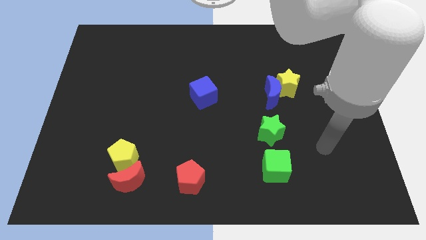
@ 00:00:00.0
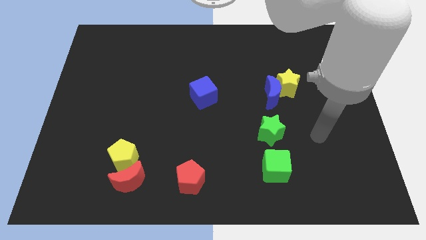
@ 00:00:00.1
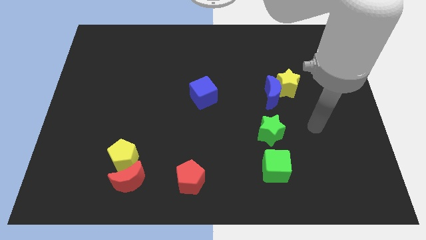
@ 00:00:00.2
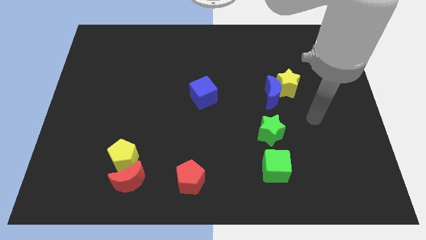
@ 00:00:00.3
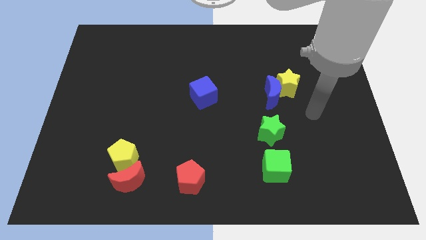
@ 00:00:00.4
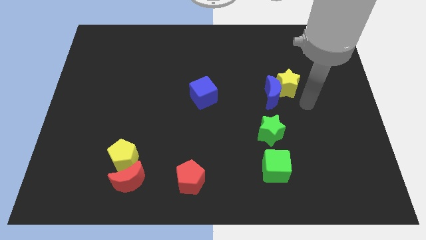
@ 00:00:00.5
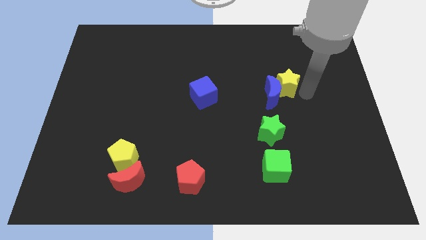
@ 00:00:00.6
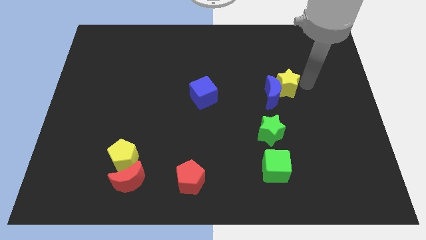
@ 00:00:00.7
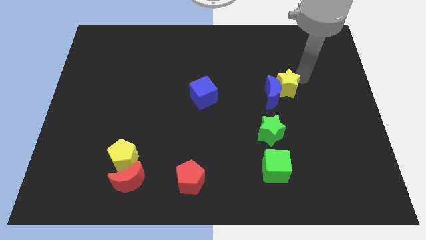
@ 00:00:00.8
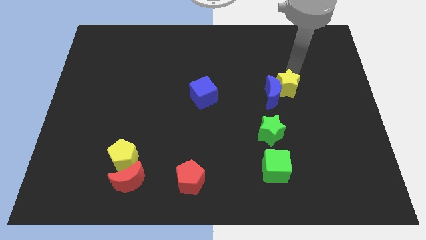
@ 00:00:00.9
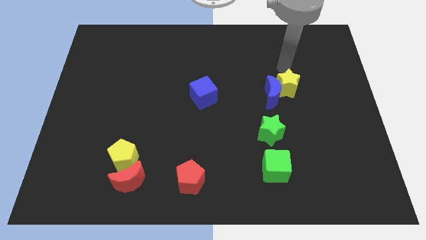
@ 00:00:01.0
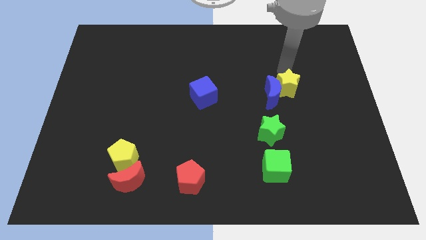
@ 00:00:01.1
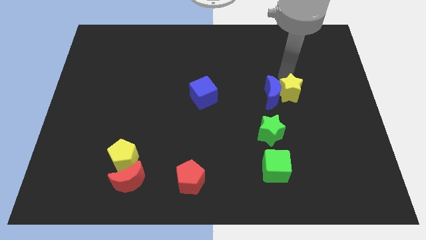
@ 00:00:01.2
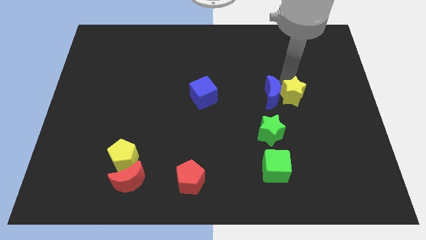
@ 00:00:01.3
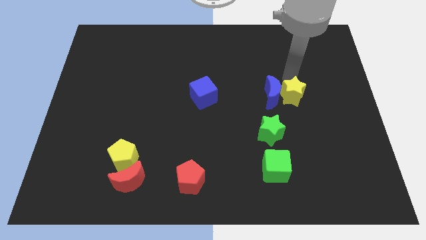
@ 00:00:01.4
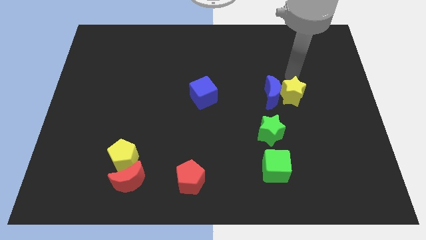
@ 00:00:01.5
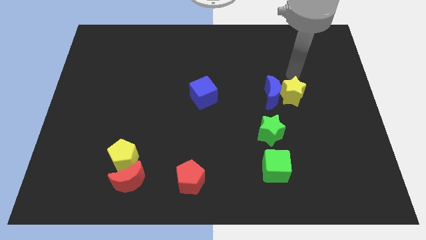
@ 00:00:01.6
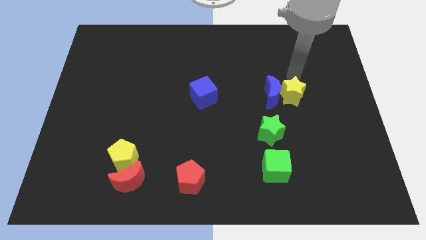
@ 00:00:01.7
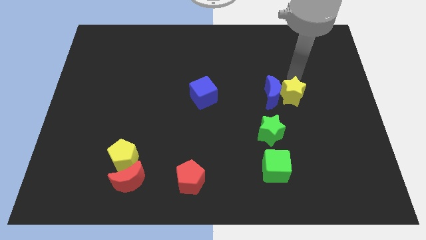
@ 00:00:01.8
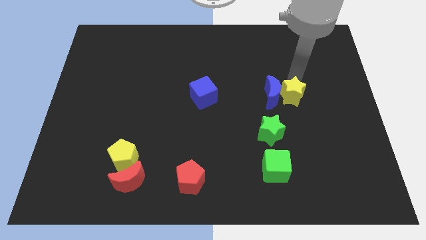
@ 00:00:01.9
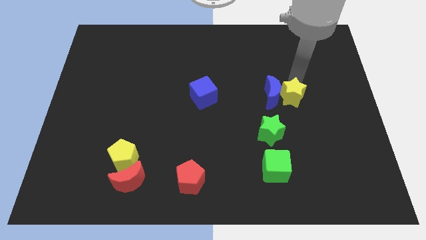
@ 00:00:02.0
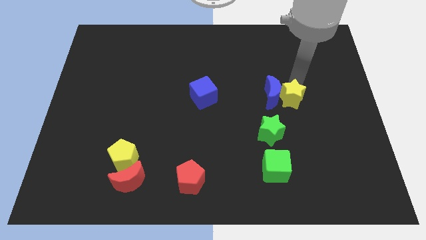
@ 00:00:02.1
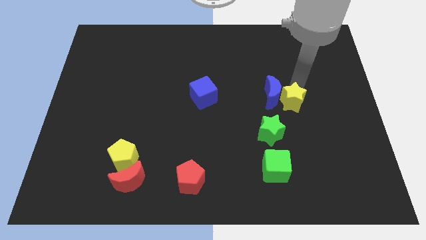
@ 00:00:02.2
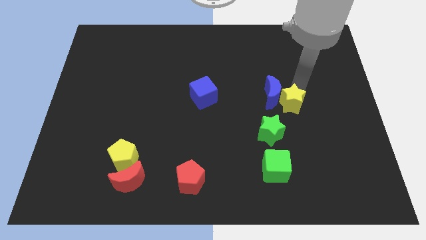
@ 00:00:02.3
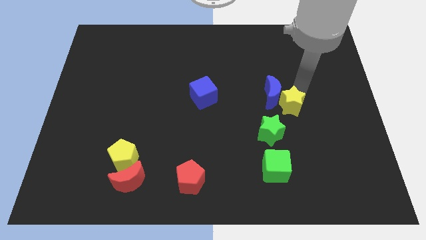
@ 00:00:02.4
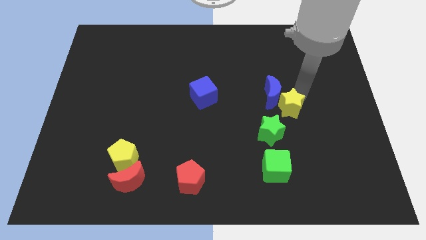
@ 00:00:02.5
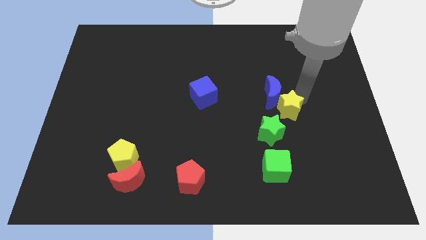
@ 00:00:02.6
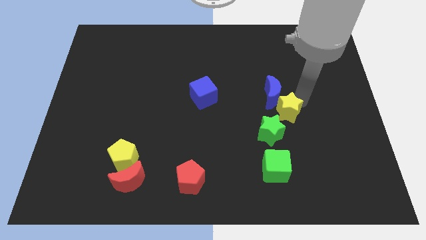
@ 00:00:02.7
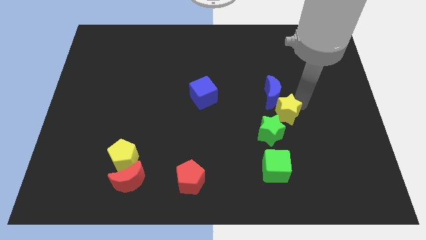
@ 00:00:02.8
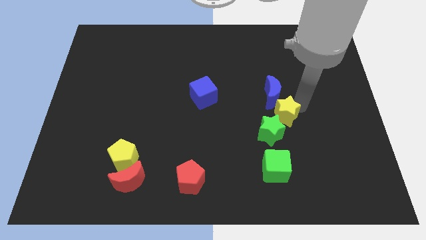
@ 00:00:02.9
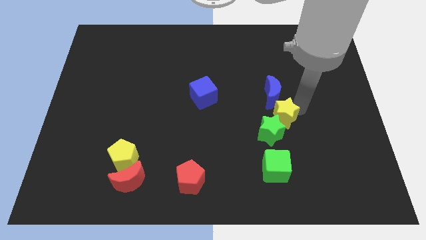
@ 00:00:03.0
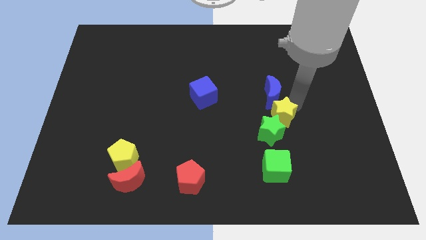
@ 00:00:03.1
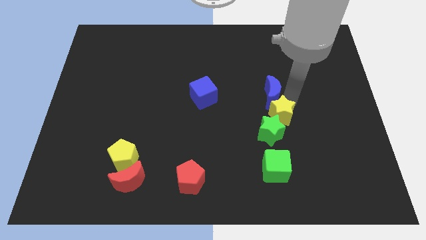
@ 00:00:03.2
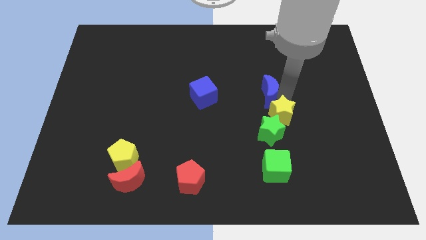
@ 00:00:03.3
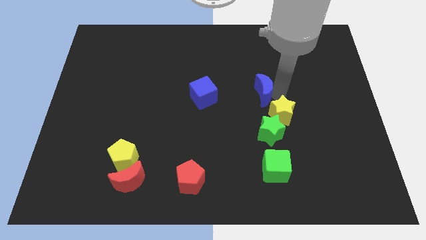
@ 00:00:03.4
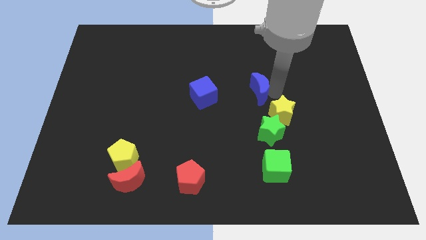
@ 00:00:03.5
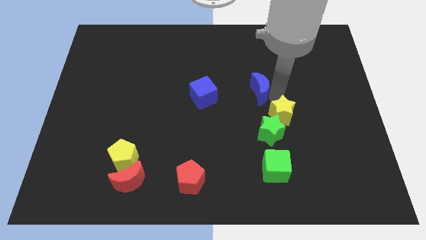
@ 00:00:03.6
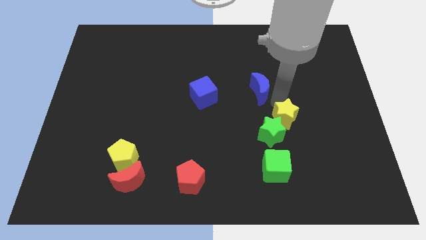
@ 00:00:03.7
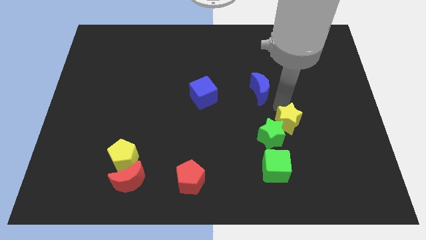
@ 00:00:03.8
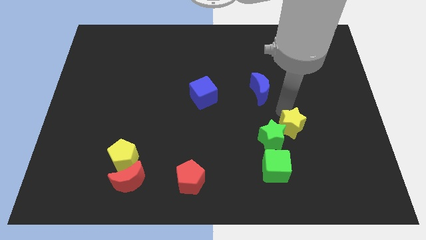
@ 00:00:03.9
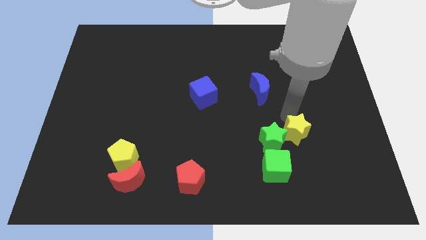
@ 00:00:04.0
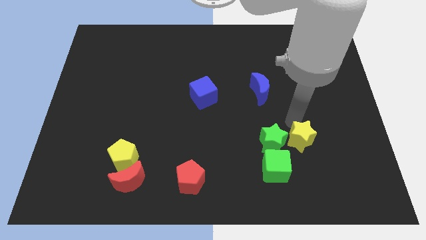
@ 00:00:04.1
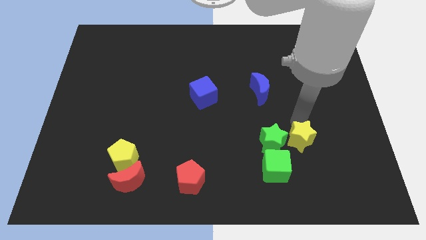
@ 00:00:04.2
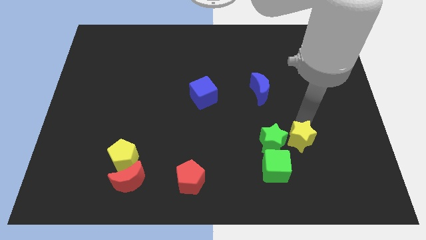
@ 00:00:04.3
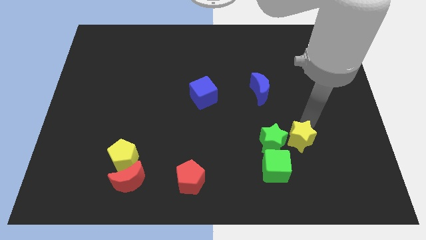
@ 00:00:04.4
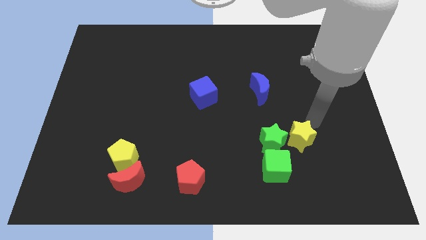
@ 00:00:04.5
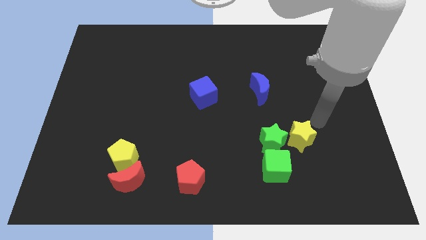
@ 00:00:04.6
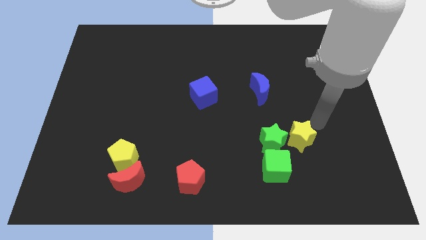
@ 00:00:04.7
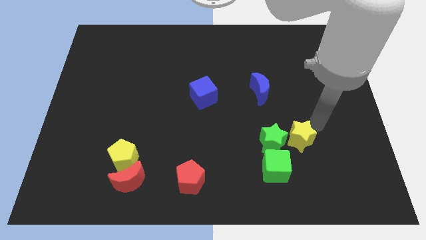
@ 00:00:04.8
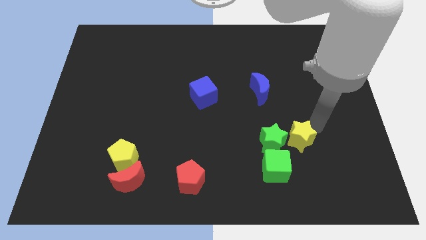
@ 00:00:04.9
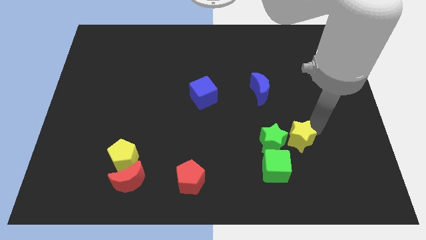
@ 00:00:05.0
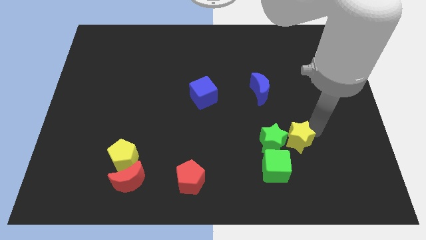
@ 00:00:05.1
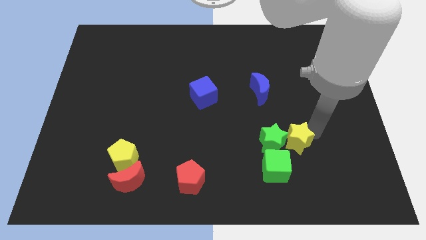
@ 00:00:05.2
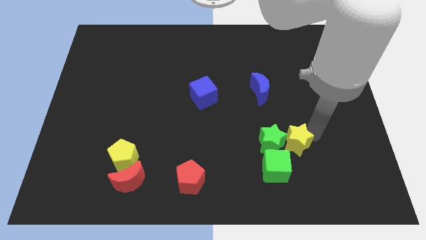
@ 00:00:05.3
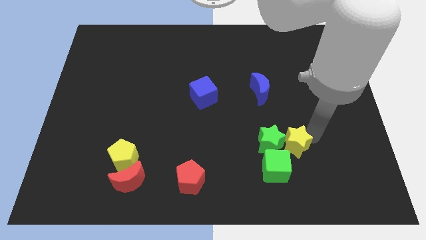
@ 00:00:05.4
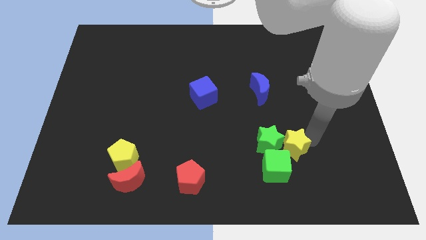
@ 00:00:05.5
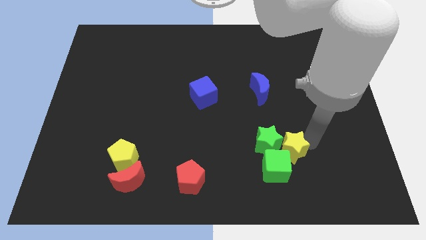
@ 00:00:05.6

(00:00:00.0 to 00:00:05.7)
slide the yellow star next to the green cube

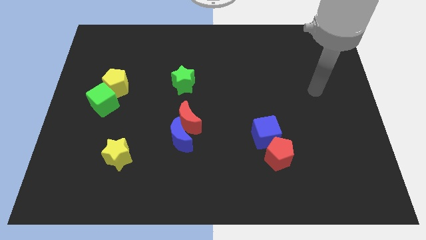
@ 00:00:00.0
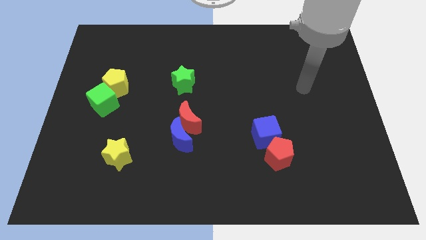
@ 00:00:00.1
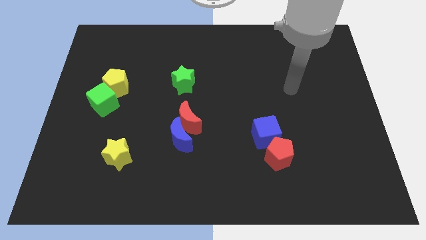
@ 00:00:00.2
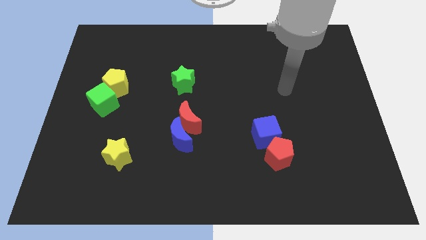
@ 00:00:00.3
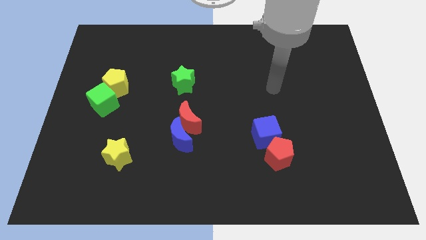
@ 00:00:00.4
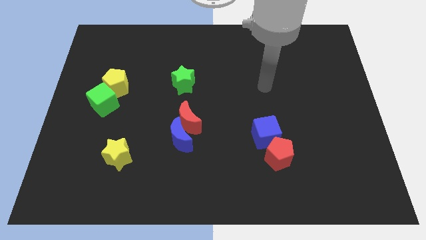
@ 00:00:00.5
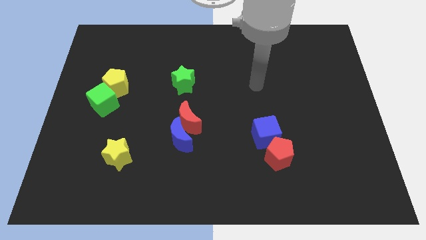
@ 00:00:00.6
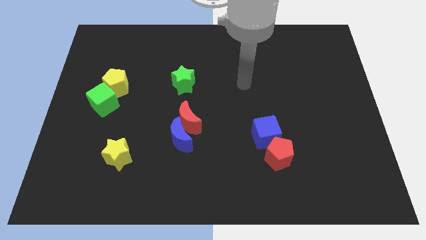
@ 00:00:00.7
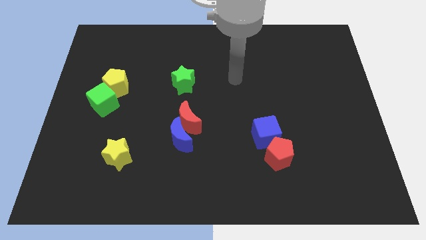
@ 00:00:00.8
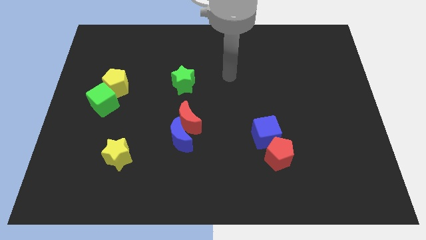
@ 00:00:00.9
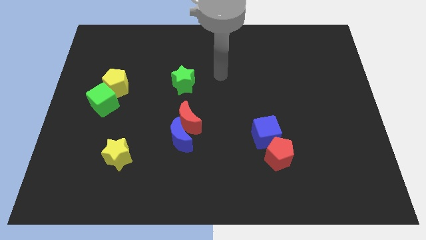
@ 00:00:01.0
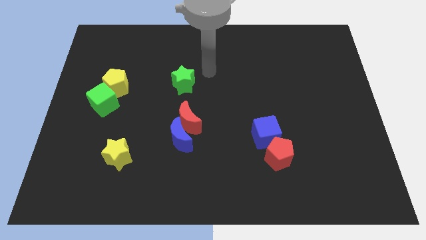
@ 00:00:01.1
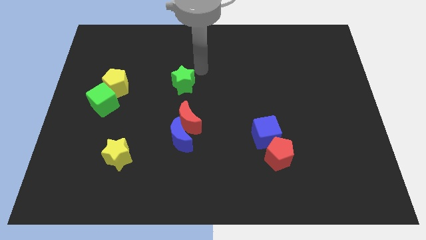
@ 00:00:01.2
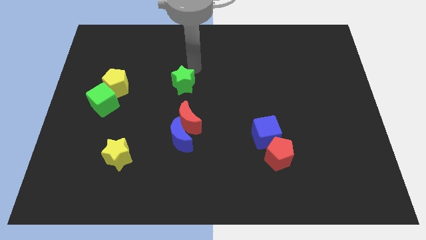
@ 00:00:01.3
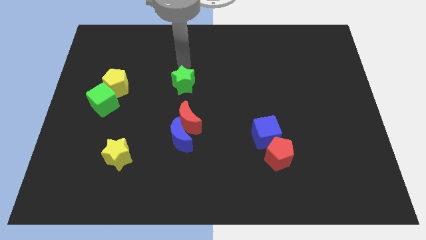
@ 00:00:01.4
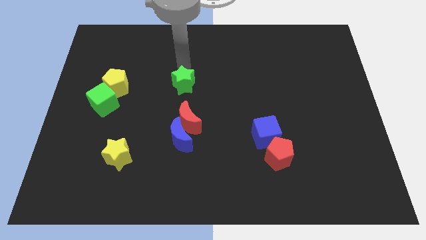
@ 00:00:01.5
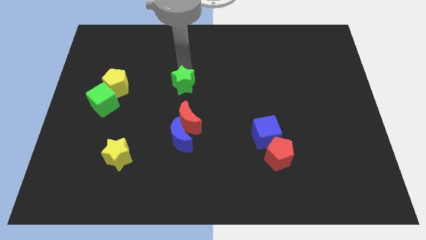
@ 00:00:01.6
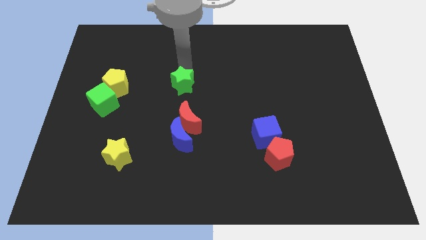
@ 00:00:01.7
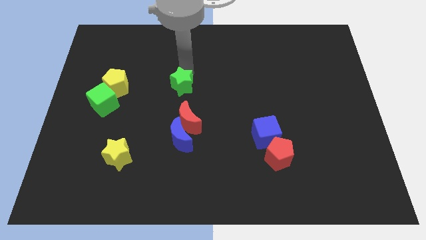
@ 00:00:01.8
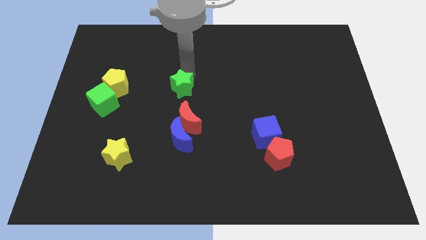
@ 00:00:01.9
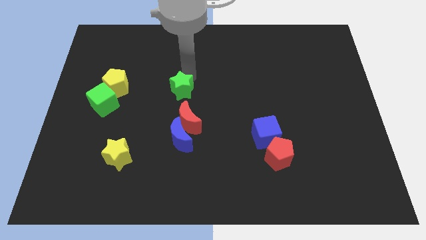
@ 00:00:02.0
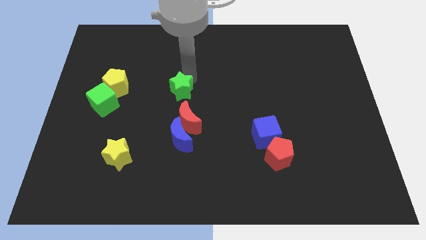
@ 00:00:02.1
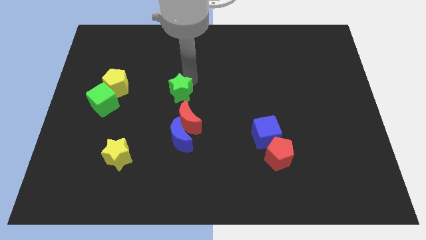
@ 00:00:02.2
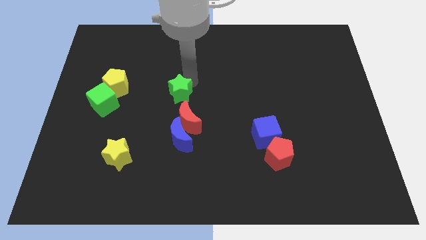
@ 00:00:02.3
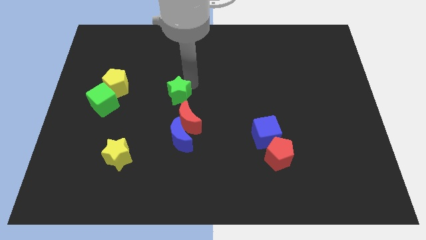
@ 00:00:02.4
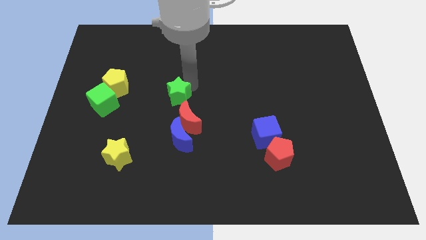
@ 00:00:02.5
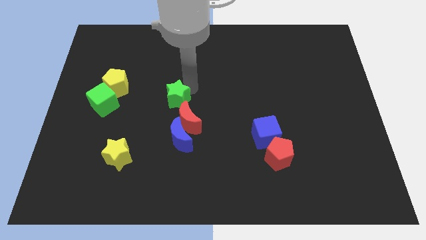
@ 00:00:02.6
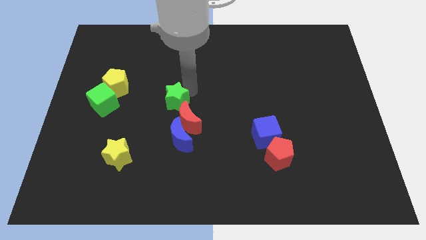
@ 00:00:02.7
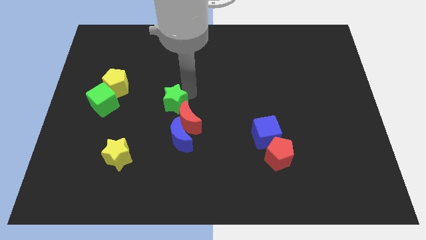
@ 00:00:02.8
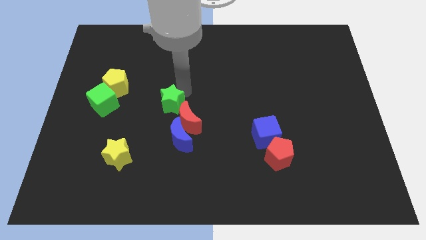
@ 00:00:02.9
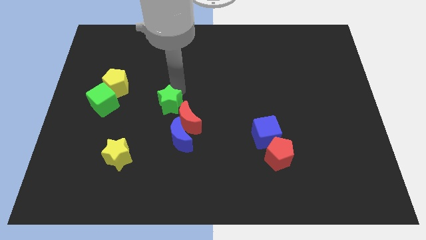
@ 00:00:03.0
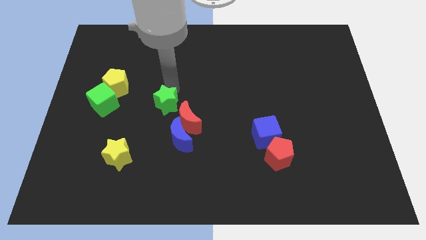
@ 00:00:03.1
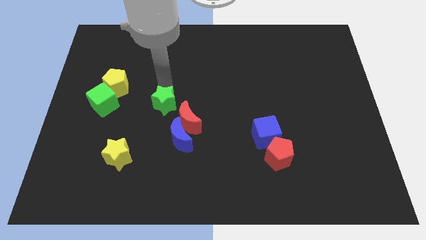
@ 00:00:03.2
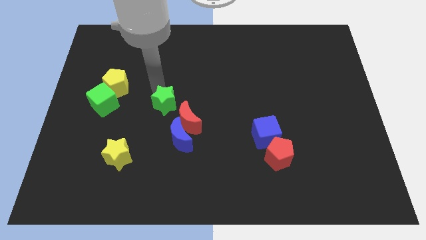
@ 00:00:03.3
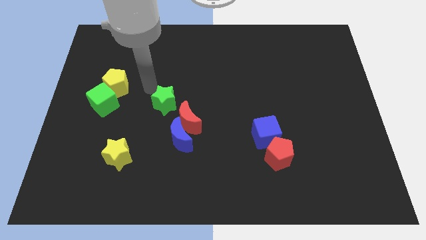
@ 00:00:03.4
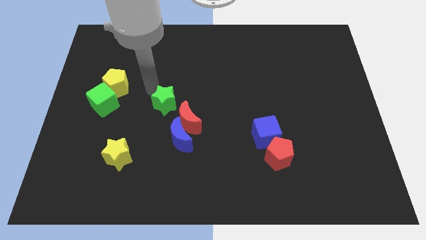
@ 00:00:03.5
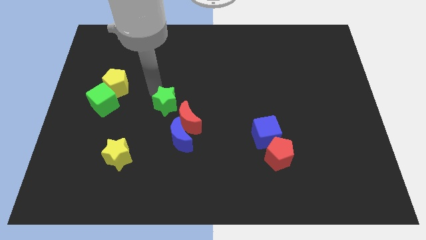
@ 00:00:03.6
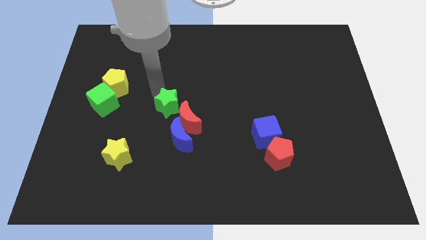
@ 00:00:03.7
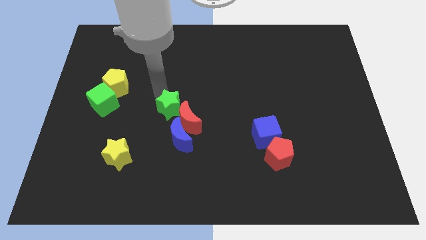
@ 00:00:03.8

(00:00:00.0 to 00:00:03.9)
push the green star close to the red moon
